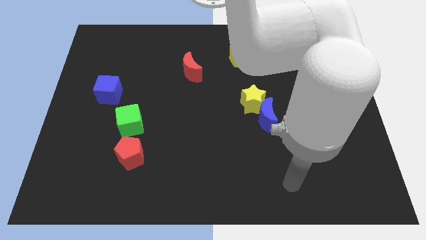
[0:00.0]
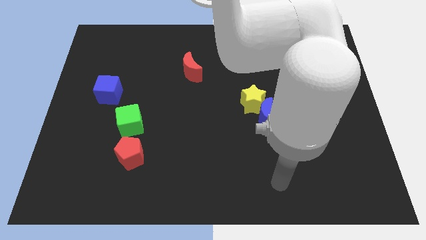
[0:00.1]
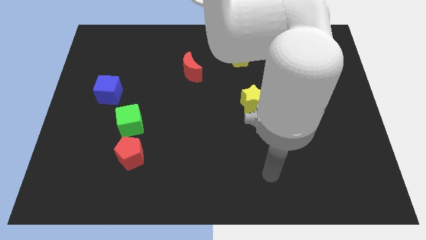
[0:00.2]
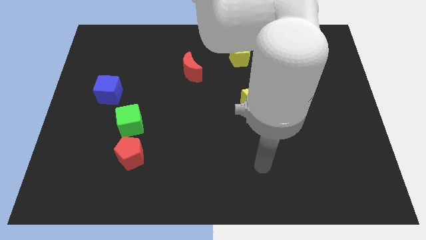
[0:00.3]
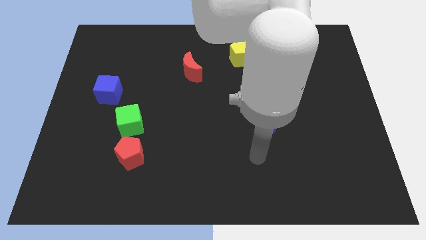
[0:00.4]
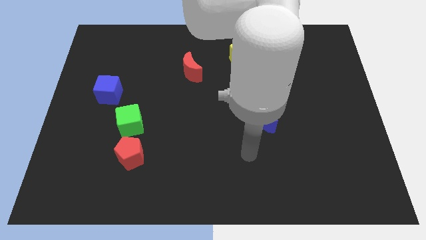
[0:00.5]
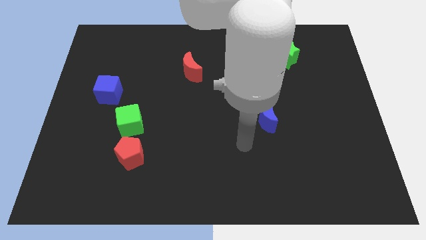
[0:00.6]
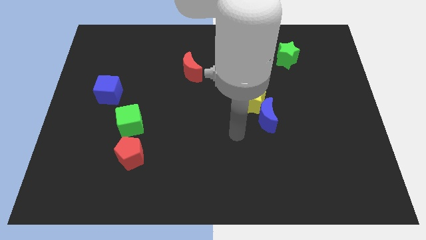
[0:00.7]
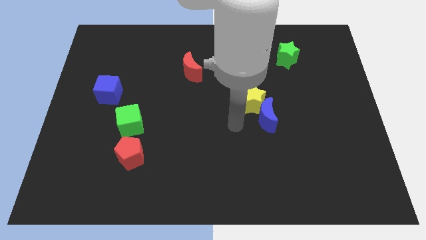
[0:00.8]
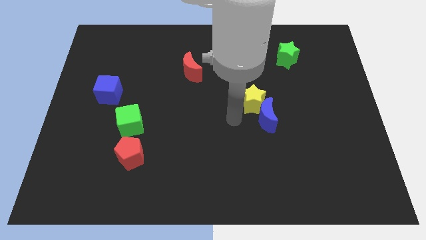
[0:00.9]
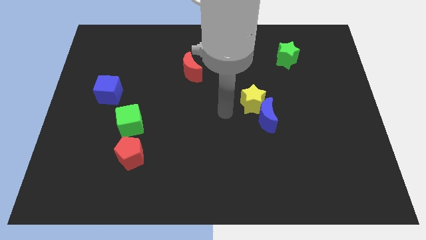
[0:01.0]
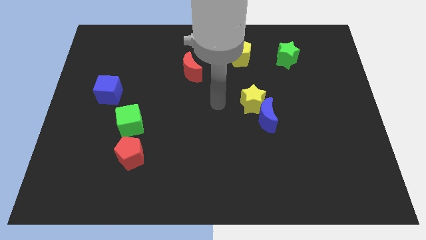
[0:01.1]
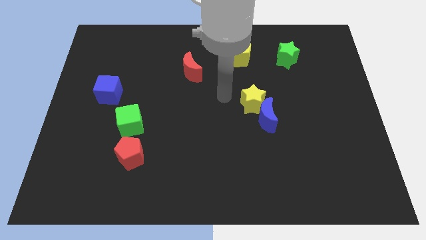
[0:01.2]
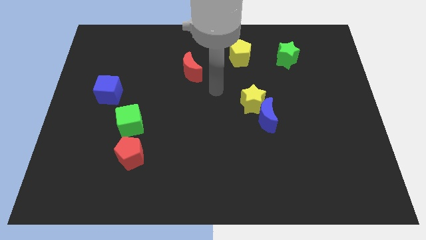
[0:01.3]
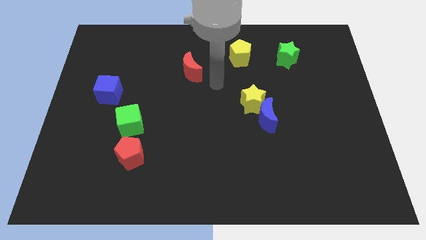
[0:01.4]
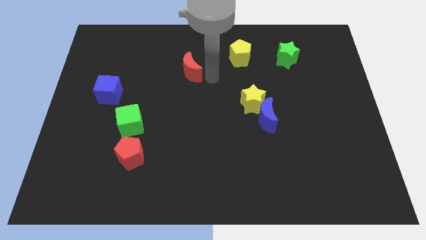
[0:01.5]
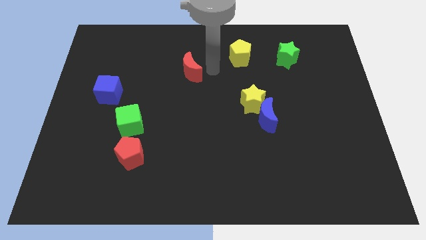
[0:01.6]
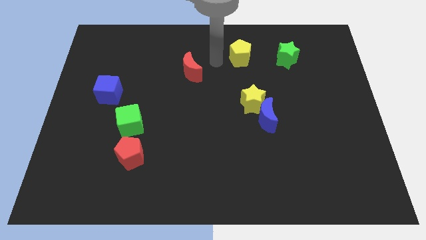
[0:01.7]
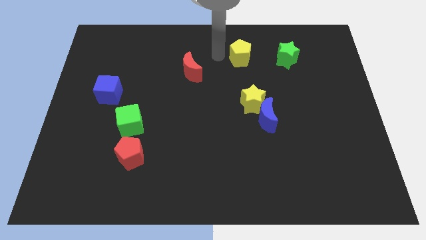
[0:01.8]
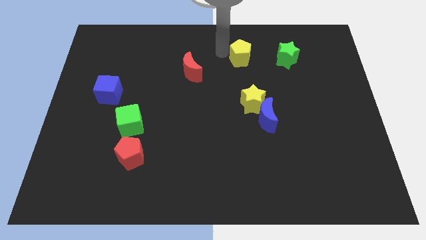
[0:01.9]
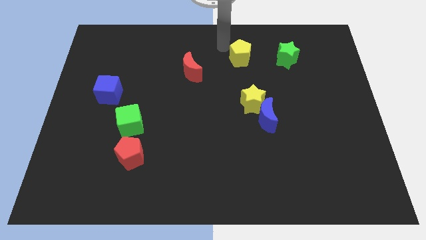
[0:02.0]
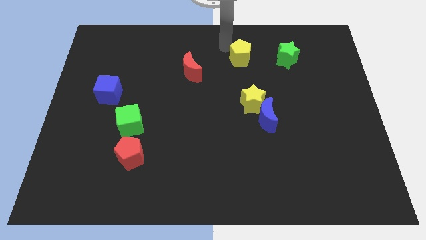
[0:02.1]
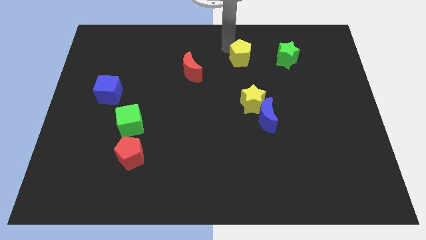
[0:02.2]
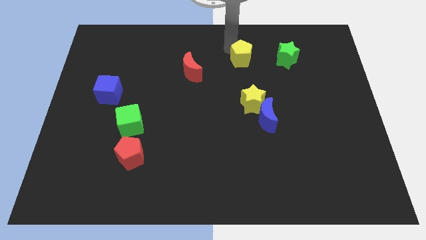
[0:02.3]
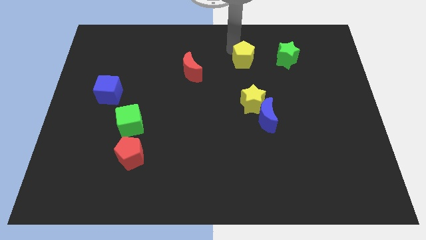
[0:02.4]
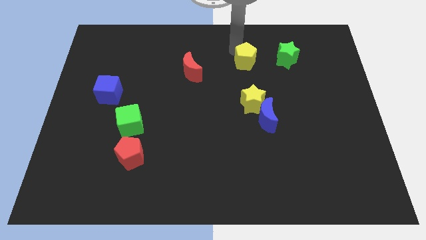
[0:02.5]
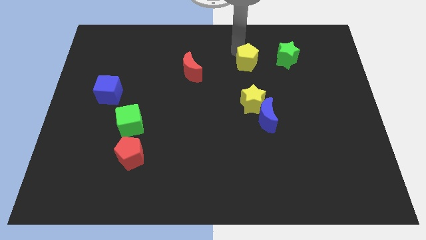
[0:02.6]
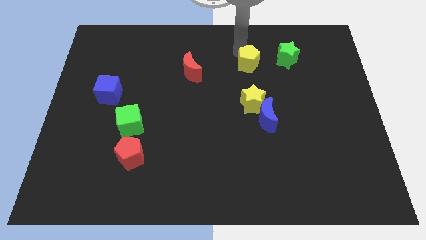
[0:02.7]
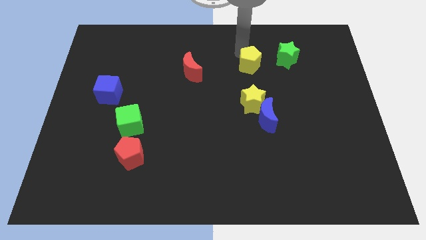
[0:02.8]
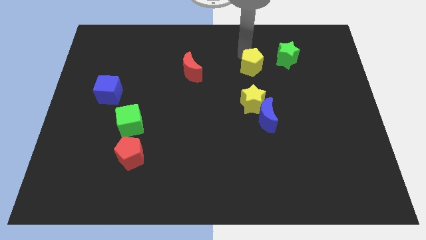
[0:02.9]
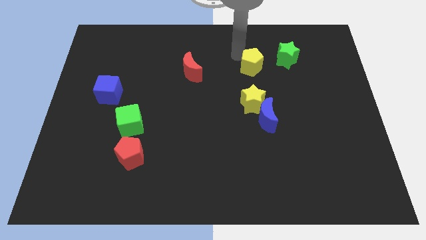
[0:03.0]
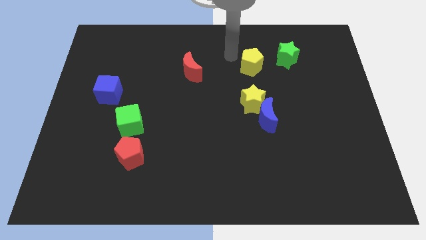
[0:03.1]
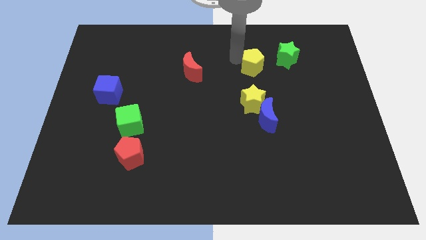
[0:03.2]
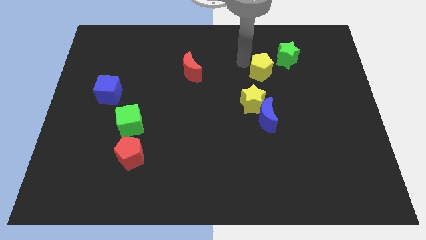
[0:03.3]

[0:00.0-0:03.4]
slightly push the yellow pentagon downwards and then to the right

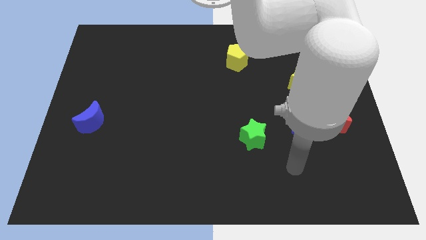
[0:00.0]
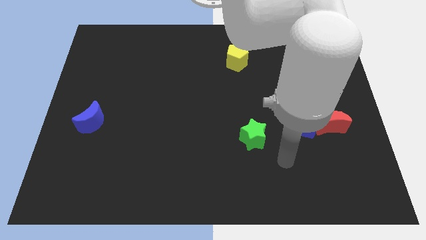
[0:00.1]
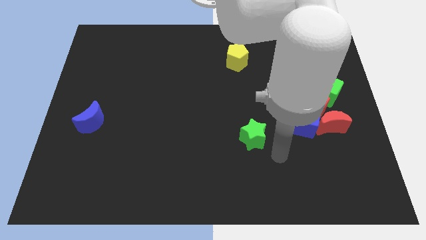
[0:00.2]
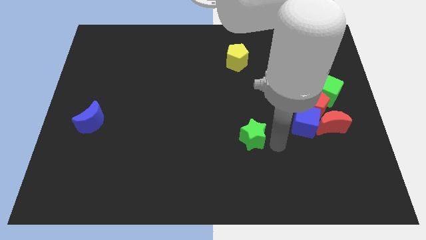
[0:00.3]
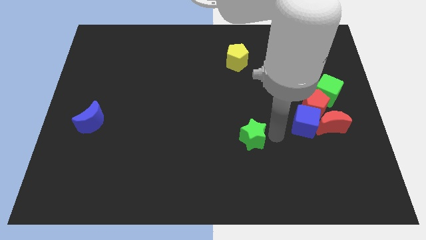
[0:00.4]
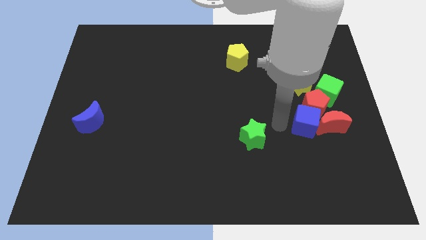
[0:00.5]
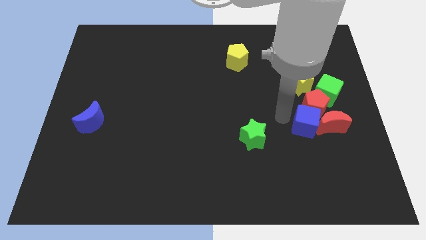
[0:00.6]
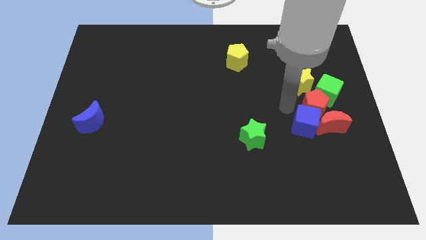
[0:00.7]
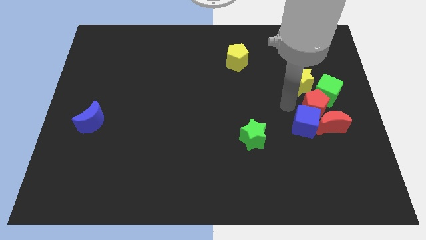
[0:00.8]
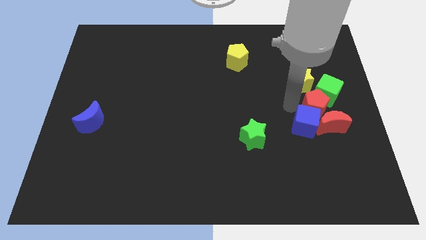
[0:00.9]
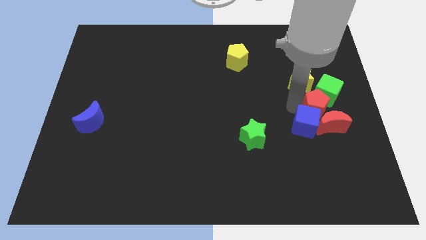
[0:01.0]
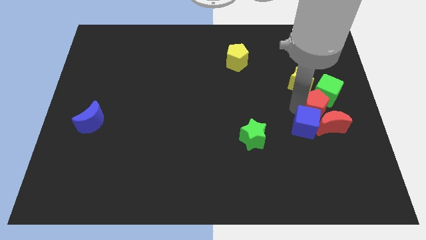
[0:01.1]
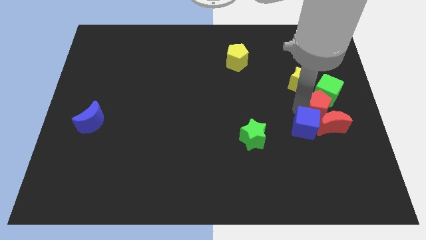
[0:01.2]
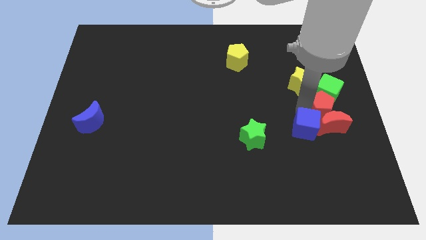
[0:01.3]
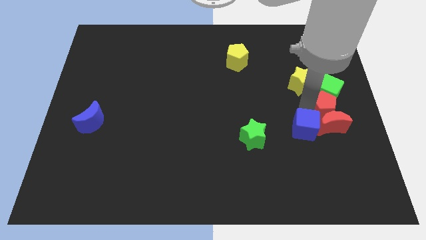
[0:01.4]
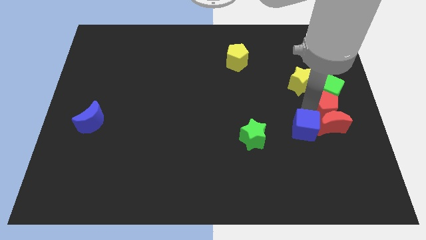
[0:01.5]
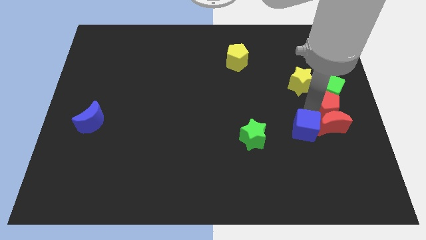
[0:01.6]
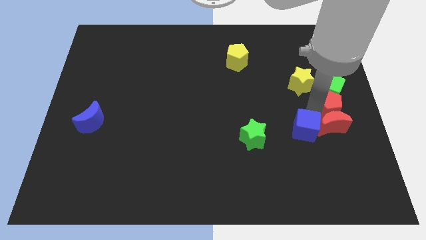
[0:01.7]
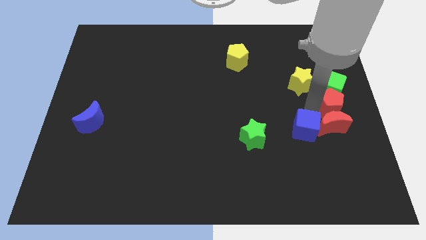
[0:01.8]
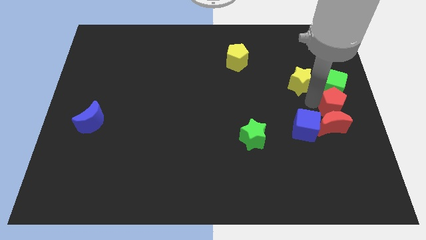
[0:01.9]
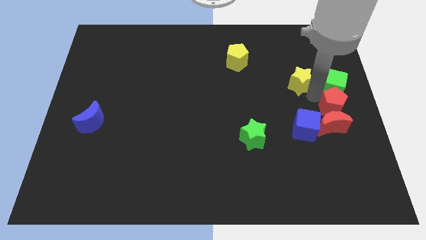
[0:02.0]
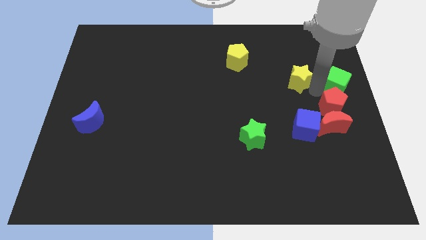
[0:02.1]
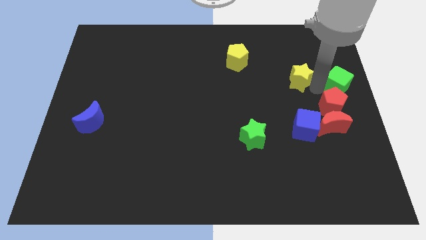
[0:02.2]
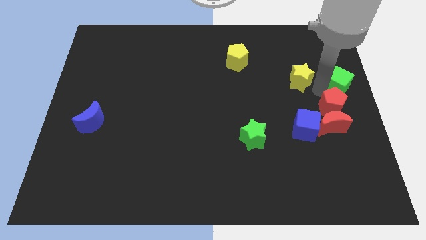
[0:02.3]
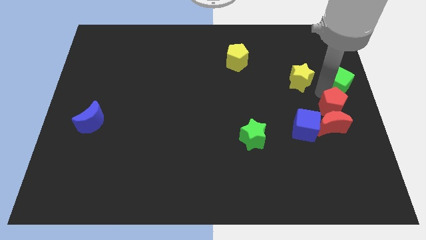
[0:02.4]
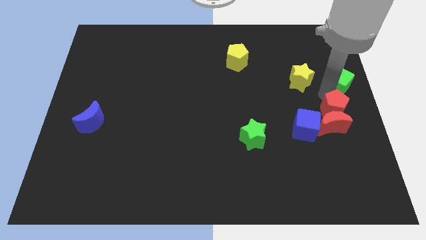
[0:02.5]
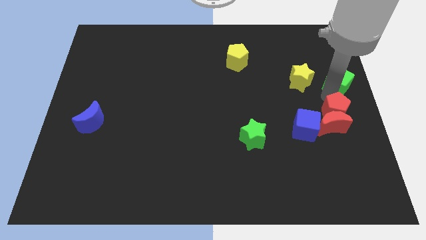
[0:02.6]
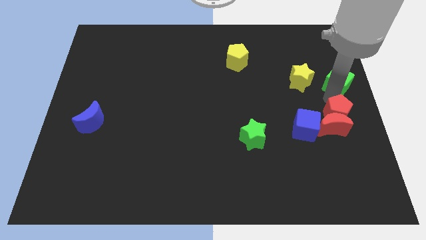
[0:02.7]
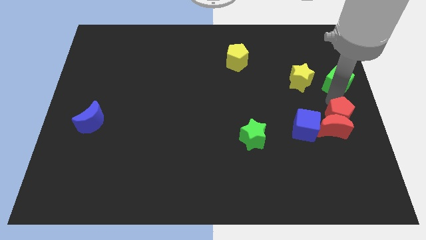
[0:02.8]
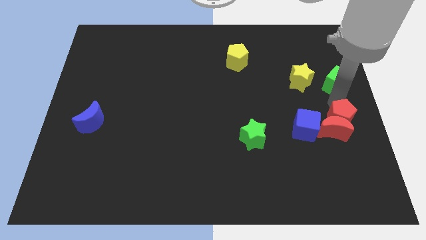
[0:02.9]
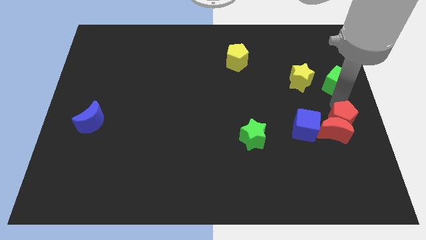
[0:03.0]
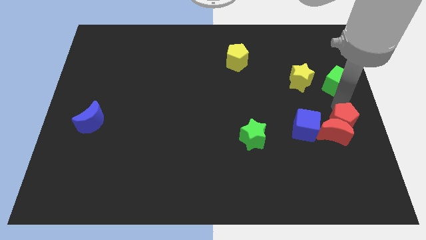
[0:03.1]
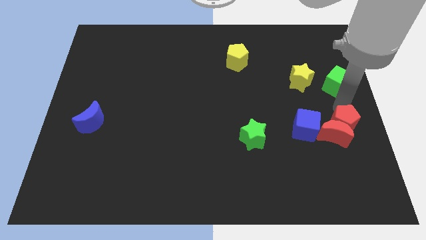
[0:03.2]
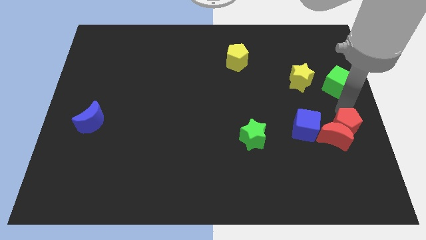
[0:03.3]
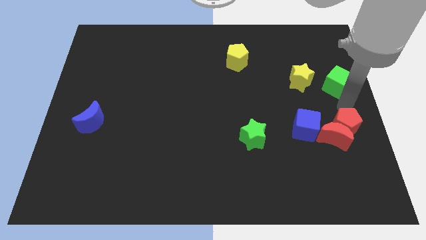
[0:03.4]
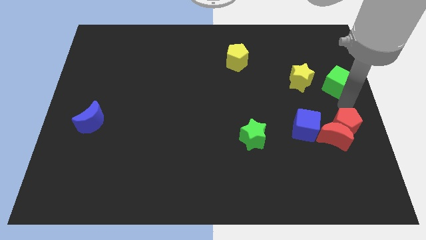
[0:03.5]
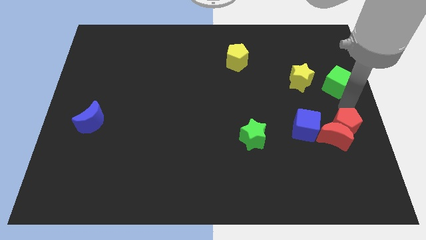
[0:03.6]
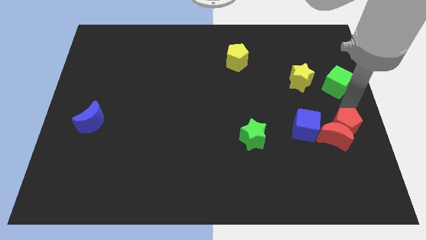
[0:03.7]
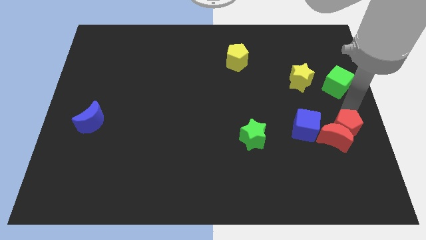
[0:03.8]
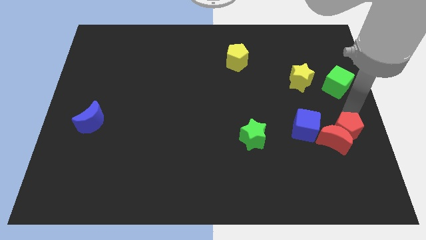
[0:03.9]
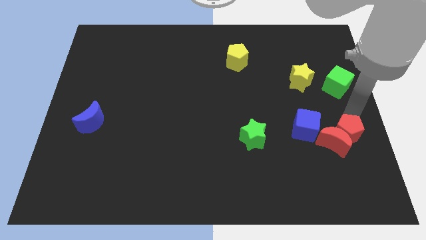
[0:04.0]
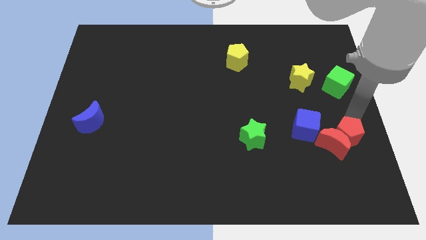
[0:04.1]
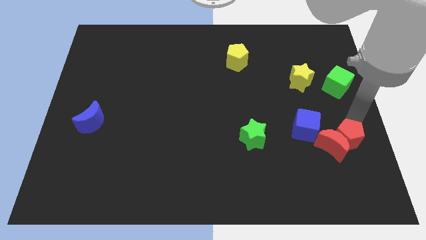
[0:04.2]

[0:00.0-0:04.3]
push the red pentagon somewhat downwards

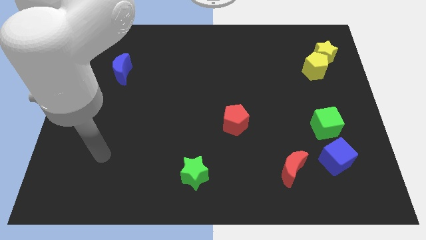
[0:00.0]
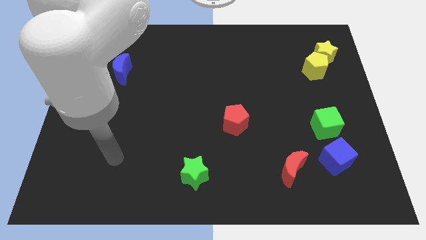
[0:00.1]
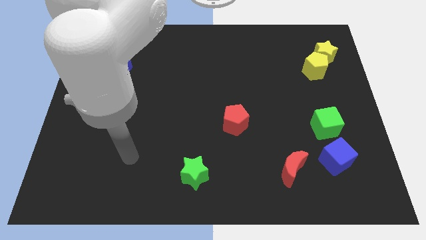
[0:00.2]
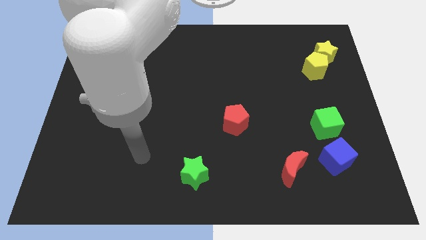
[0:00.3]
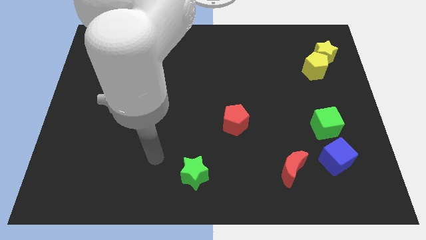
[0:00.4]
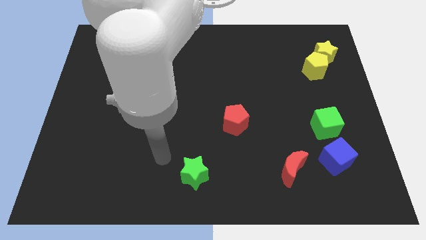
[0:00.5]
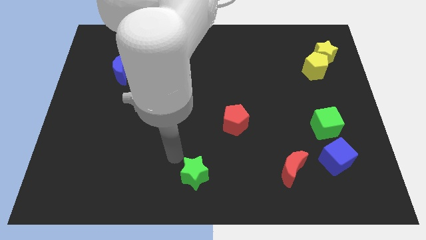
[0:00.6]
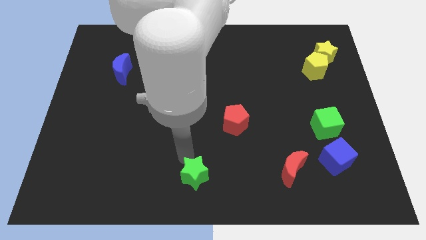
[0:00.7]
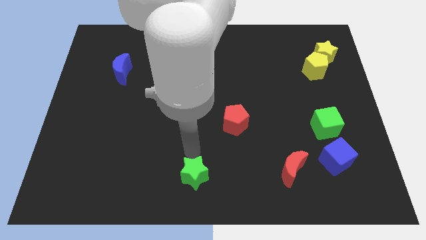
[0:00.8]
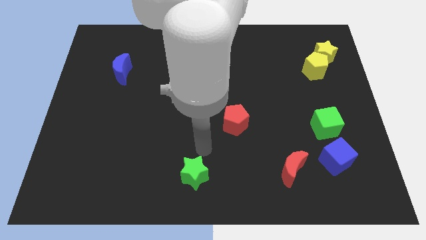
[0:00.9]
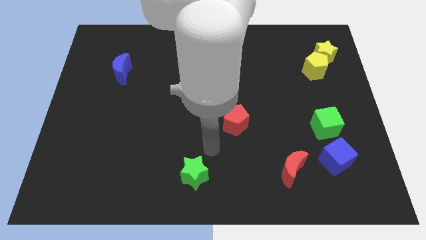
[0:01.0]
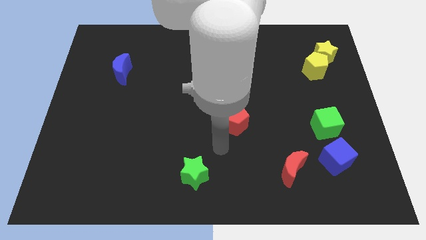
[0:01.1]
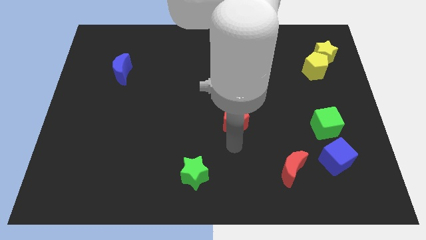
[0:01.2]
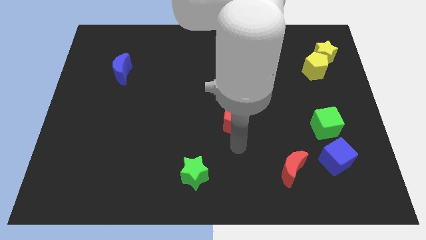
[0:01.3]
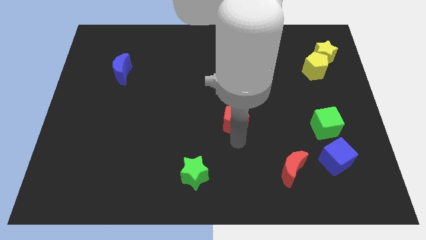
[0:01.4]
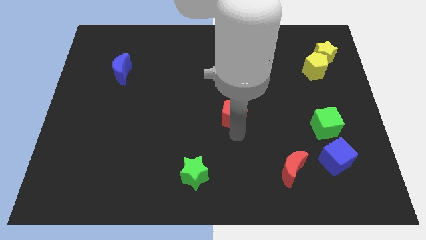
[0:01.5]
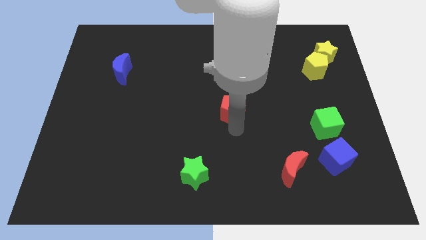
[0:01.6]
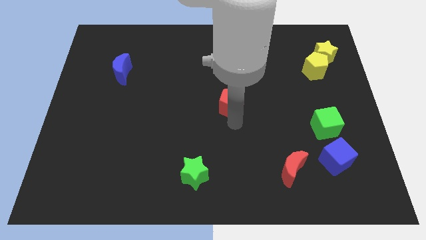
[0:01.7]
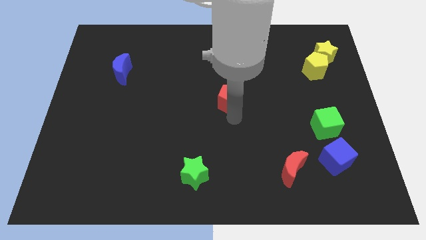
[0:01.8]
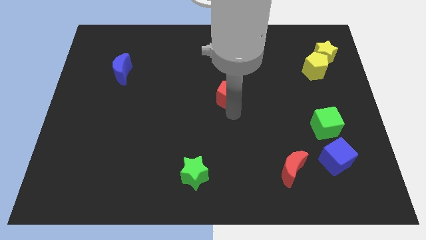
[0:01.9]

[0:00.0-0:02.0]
push the red pentagon upwards a bit
